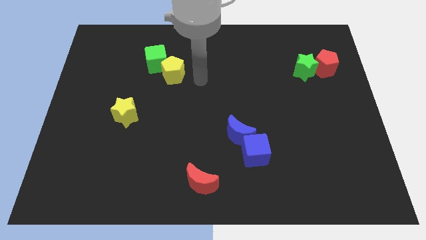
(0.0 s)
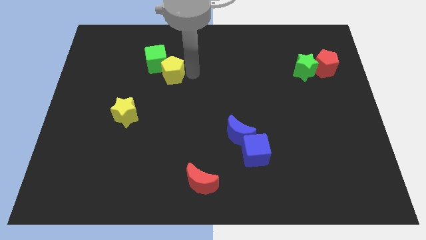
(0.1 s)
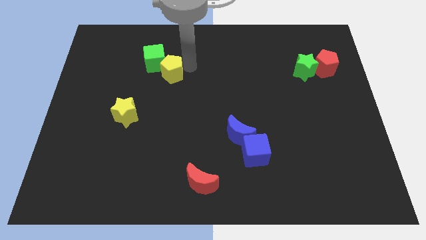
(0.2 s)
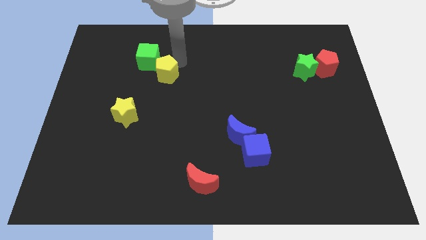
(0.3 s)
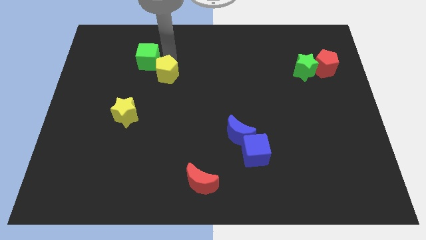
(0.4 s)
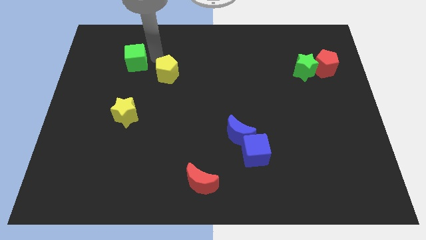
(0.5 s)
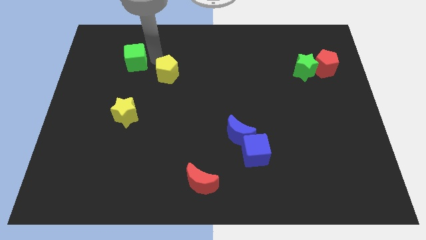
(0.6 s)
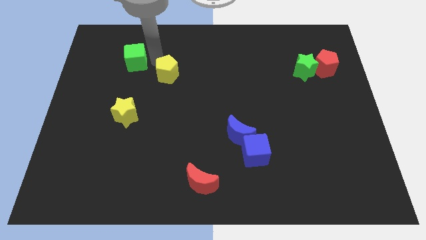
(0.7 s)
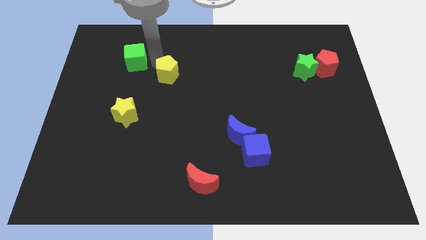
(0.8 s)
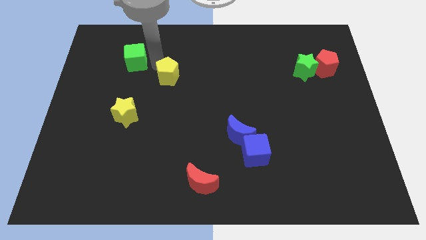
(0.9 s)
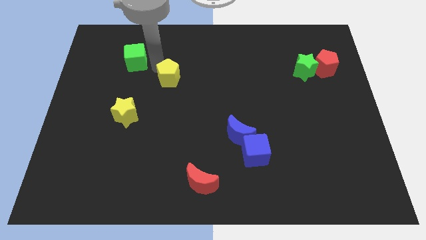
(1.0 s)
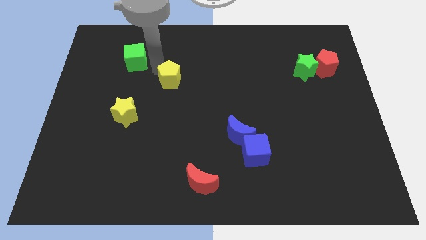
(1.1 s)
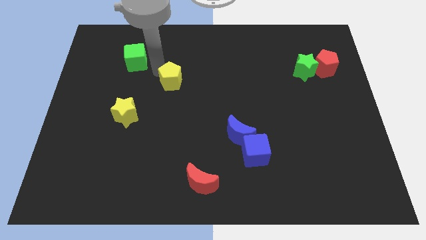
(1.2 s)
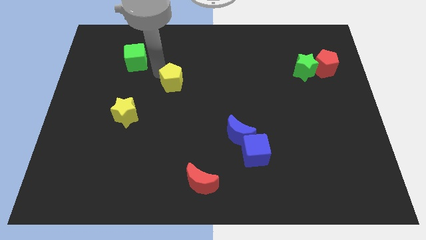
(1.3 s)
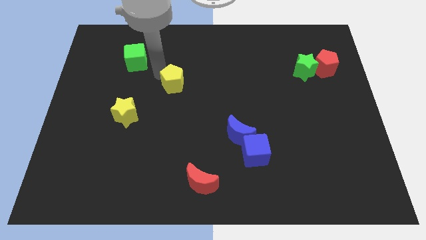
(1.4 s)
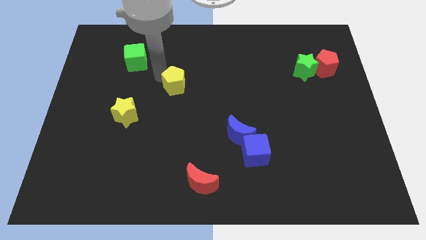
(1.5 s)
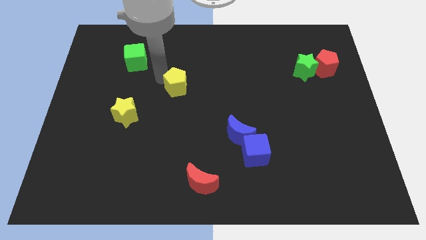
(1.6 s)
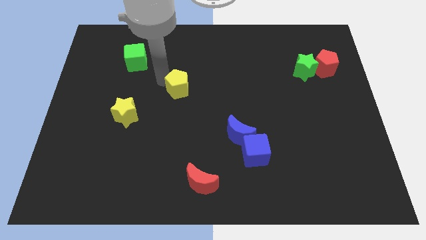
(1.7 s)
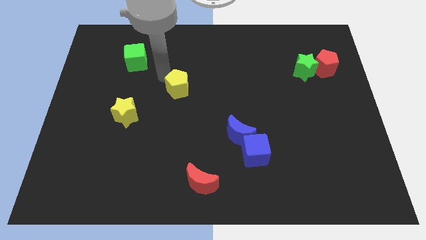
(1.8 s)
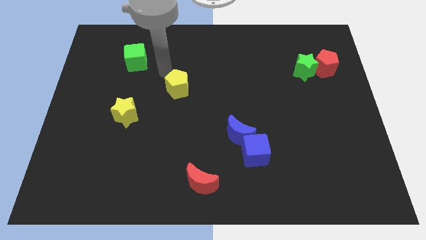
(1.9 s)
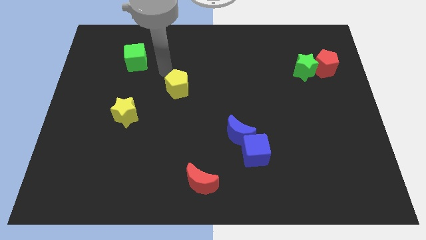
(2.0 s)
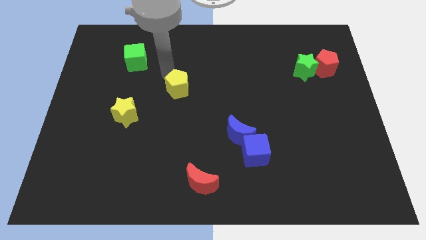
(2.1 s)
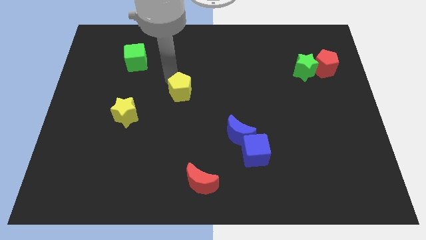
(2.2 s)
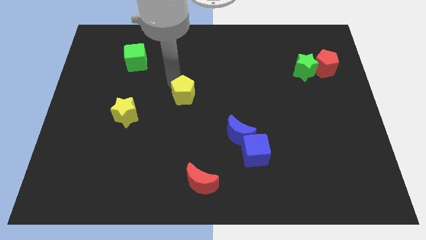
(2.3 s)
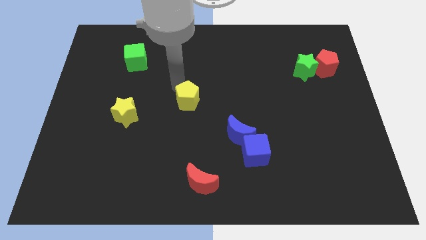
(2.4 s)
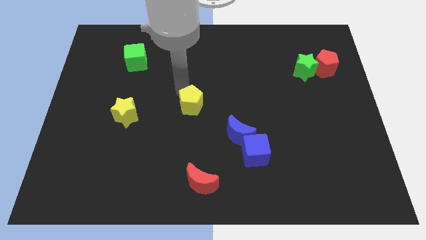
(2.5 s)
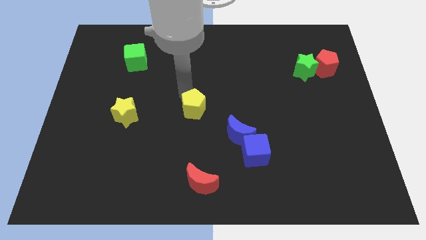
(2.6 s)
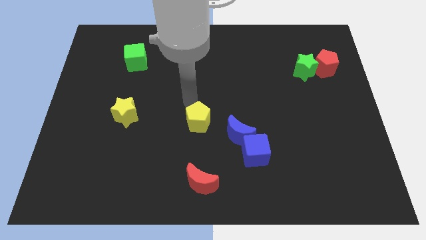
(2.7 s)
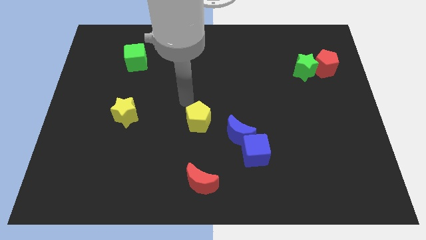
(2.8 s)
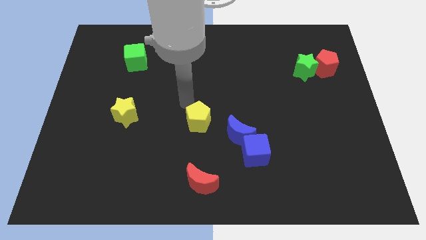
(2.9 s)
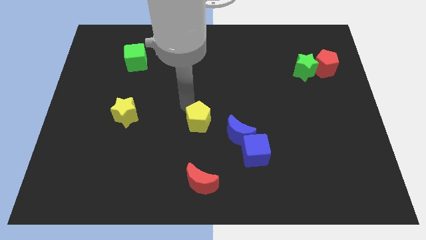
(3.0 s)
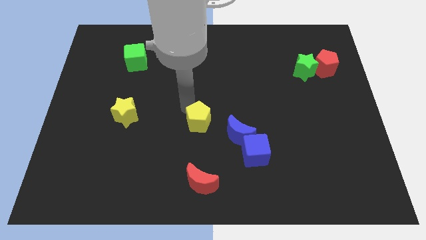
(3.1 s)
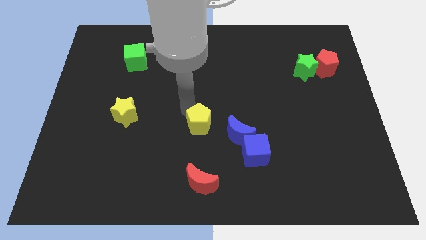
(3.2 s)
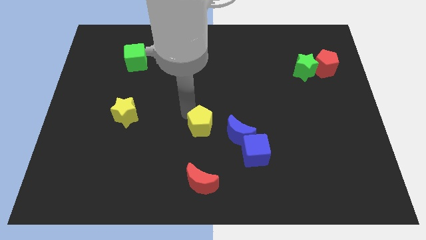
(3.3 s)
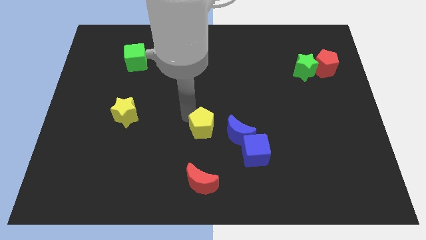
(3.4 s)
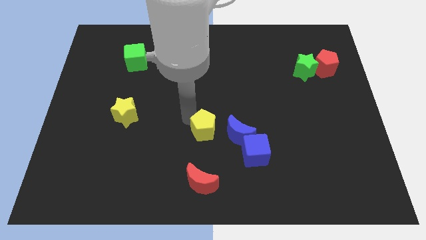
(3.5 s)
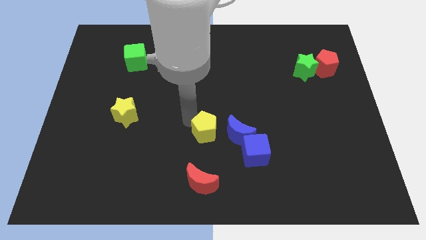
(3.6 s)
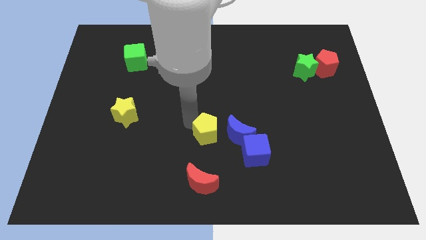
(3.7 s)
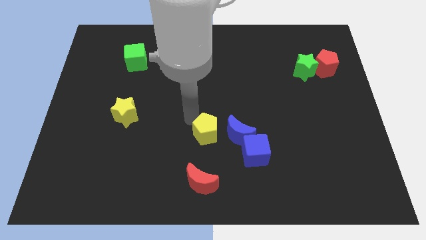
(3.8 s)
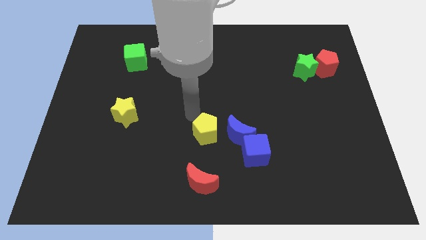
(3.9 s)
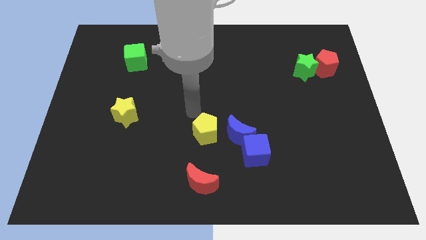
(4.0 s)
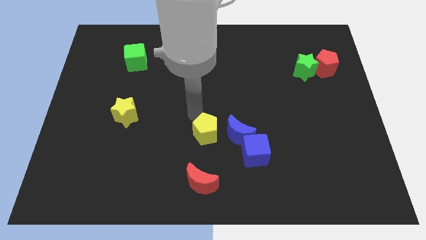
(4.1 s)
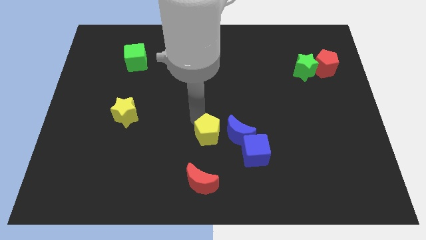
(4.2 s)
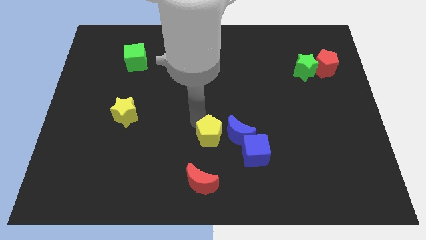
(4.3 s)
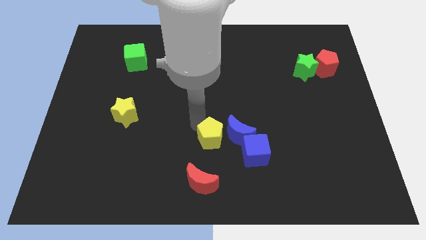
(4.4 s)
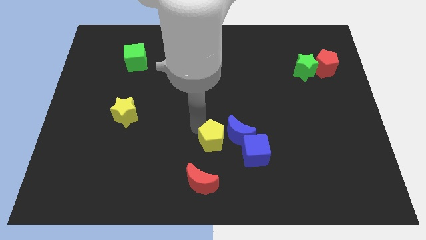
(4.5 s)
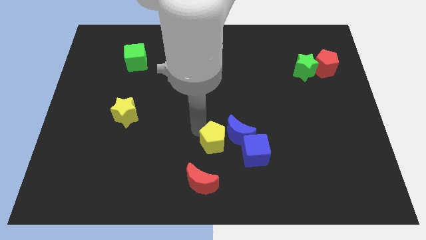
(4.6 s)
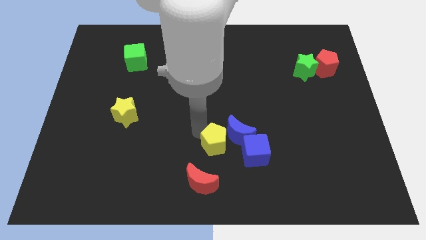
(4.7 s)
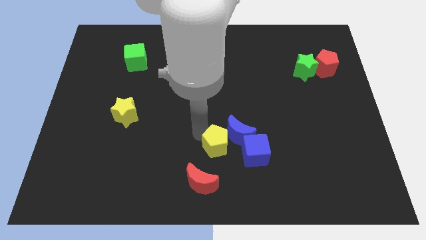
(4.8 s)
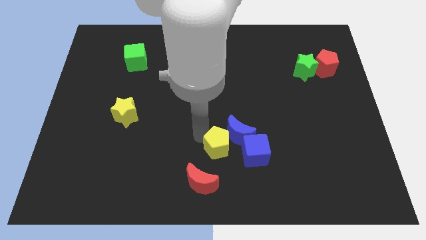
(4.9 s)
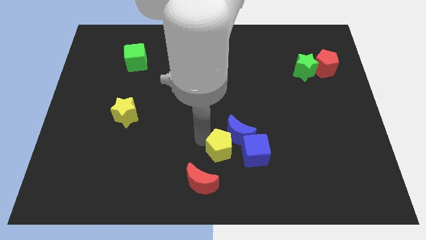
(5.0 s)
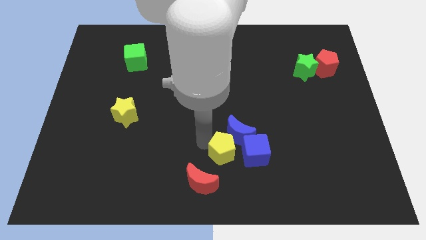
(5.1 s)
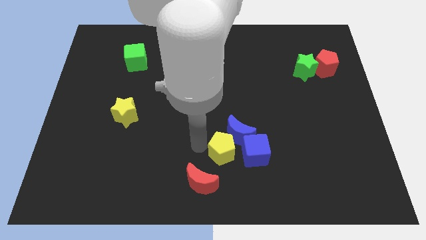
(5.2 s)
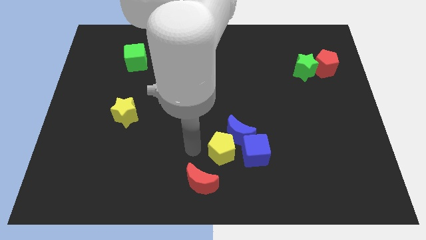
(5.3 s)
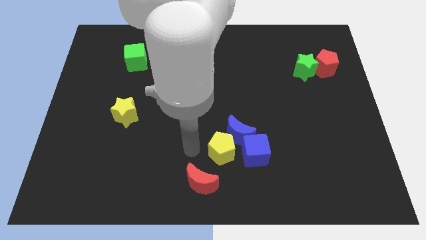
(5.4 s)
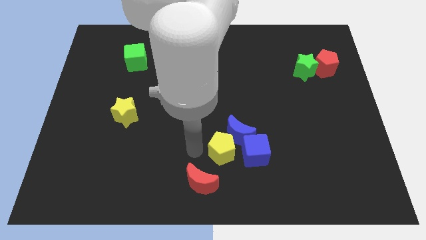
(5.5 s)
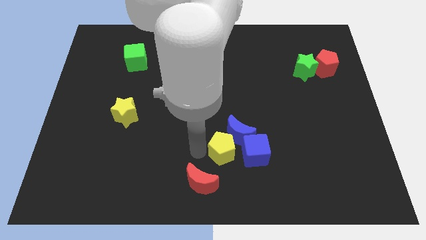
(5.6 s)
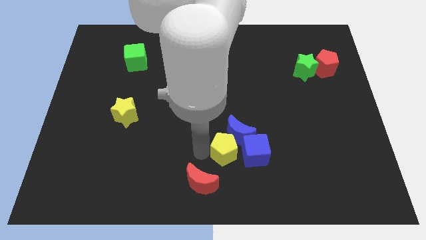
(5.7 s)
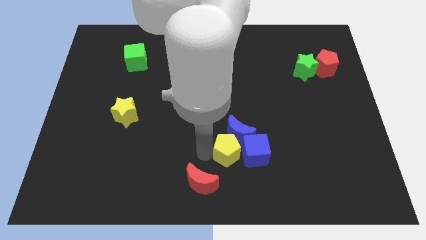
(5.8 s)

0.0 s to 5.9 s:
slide the yellow pentagon next to the blue cube
